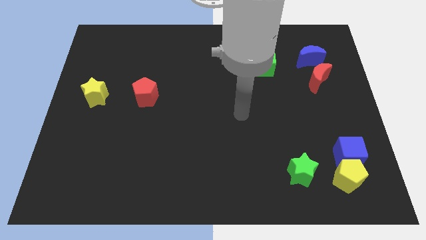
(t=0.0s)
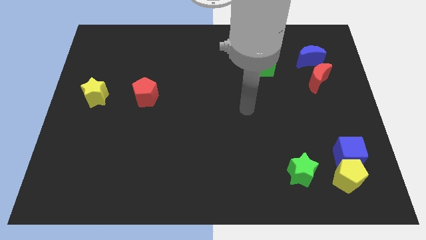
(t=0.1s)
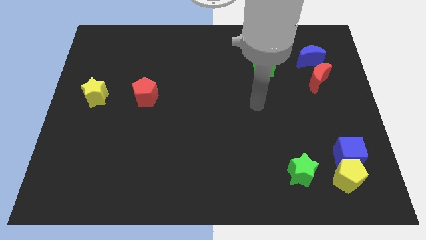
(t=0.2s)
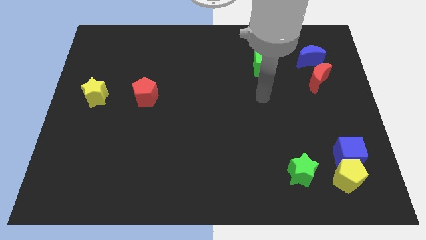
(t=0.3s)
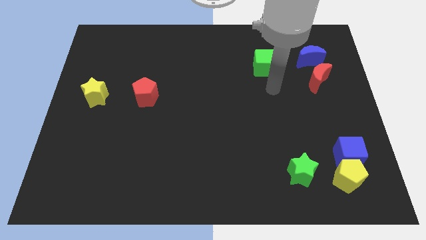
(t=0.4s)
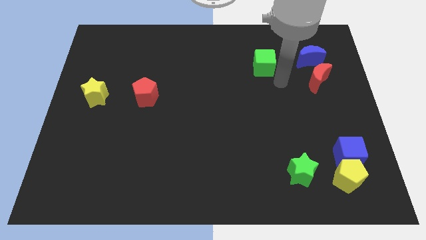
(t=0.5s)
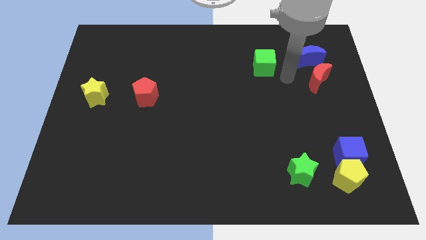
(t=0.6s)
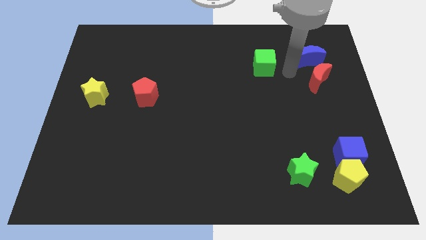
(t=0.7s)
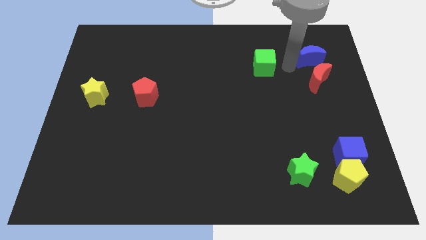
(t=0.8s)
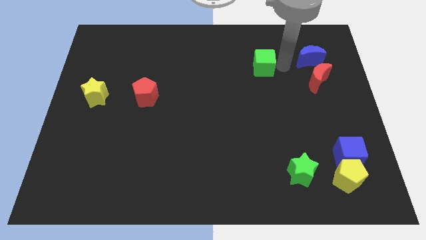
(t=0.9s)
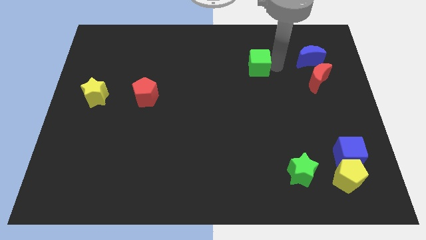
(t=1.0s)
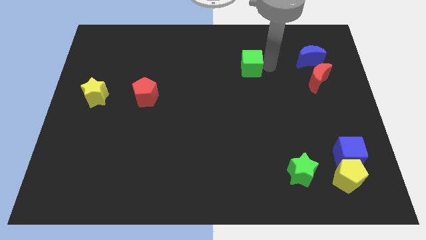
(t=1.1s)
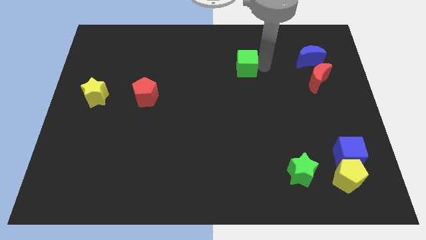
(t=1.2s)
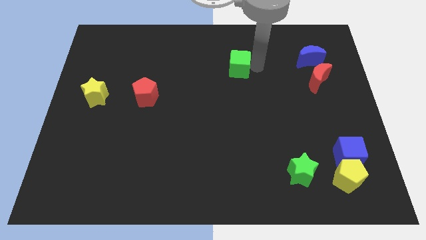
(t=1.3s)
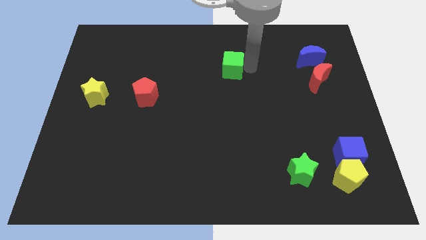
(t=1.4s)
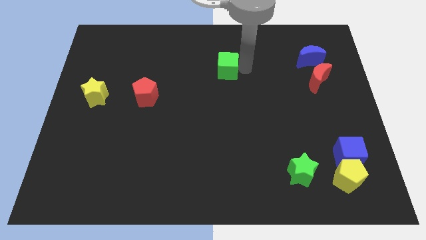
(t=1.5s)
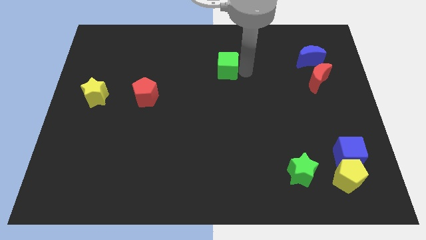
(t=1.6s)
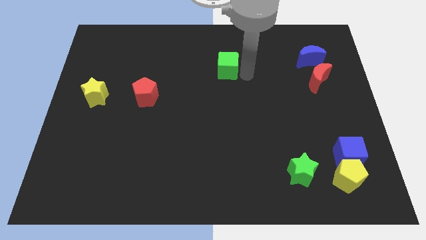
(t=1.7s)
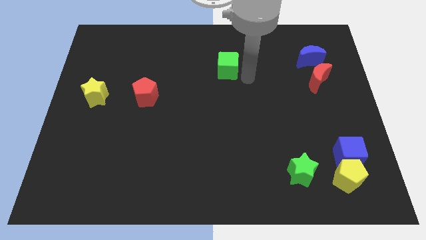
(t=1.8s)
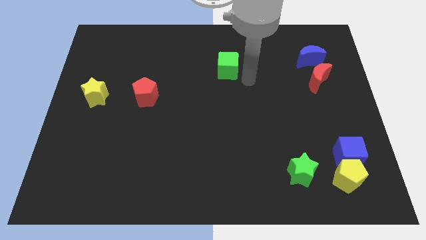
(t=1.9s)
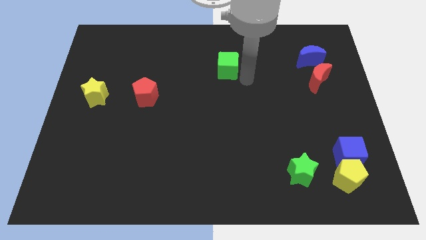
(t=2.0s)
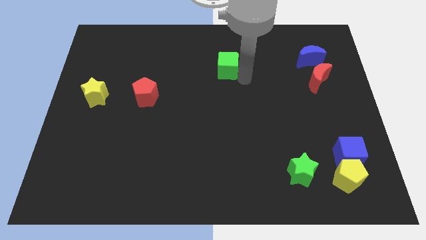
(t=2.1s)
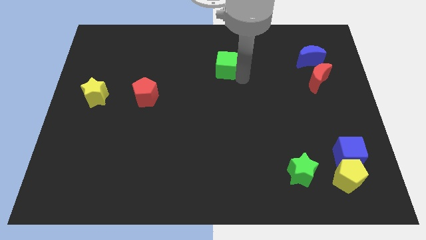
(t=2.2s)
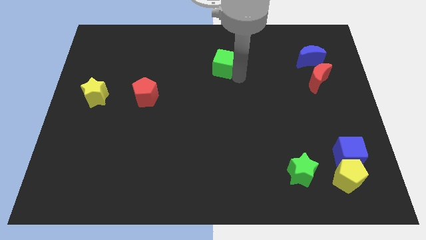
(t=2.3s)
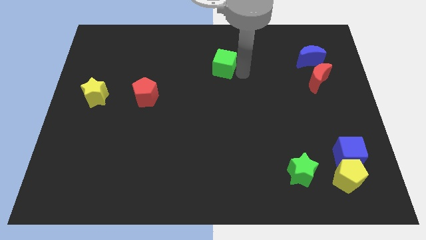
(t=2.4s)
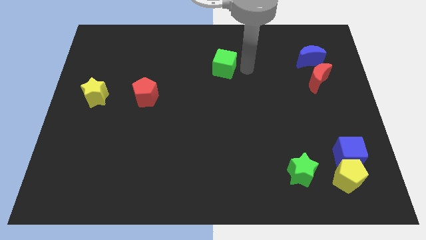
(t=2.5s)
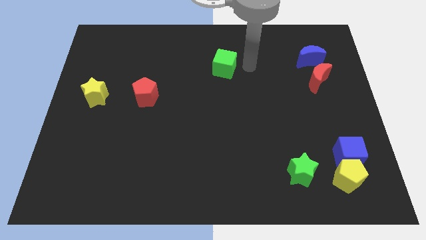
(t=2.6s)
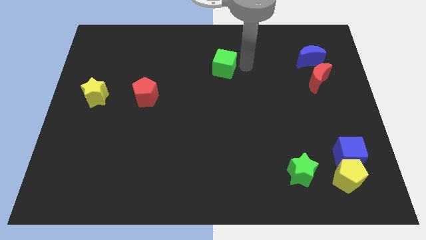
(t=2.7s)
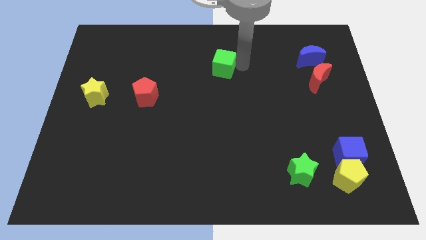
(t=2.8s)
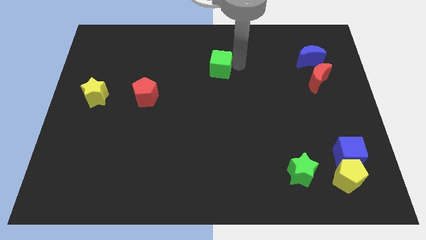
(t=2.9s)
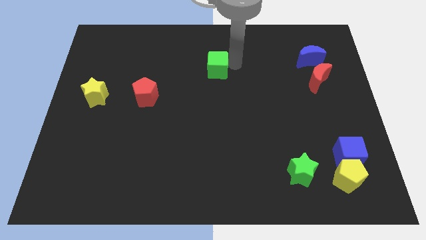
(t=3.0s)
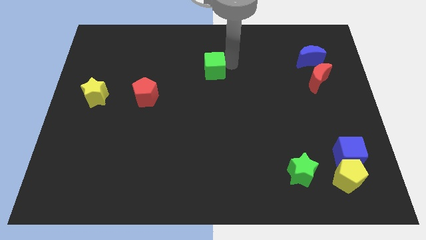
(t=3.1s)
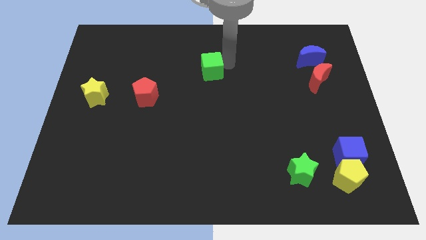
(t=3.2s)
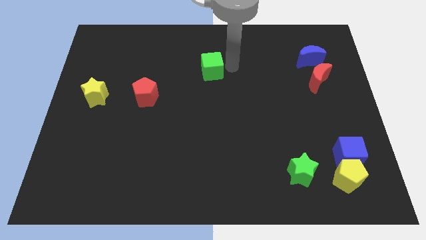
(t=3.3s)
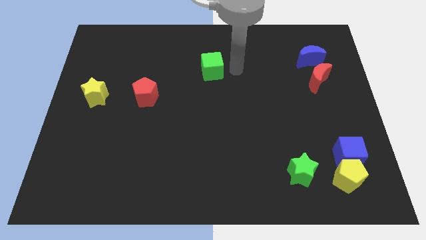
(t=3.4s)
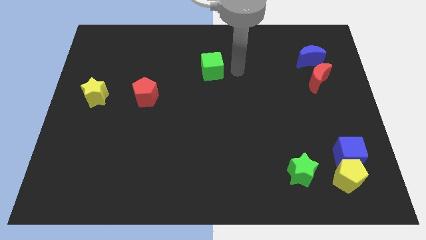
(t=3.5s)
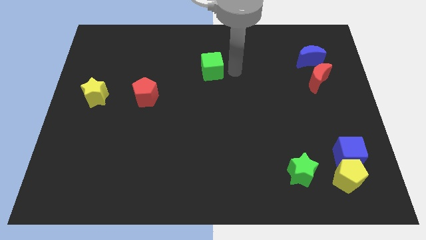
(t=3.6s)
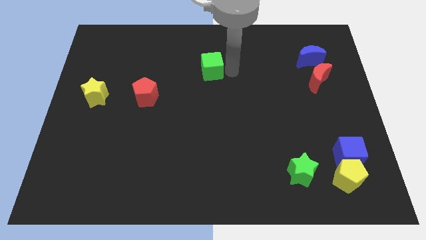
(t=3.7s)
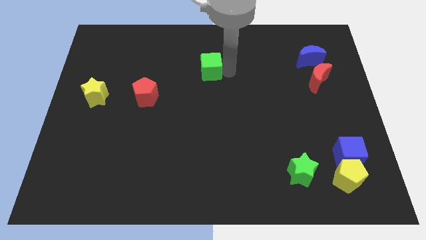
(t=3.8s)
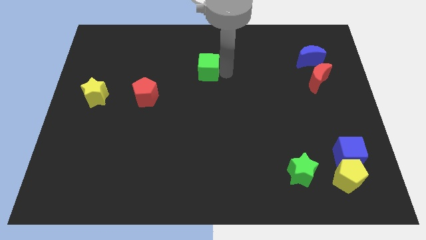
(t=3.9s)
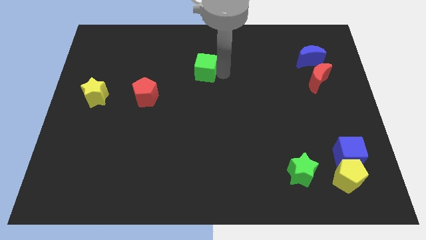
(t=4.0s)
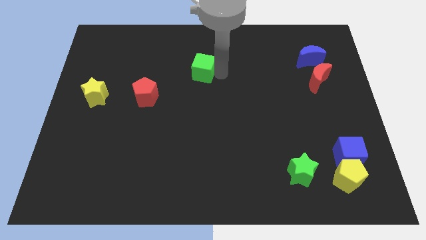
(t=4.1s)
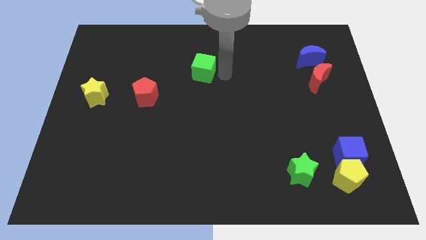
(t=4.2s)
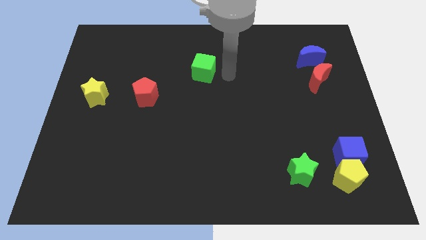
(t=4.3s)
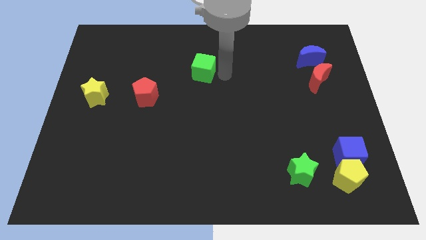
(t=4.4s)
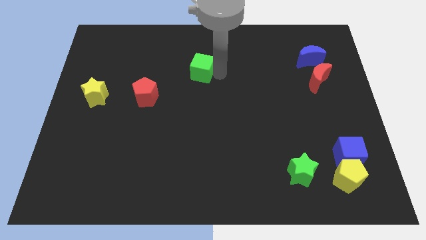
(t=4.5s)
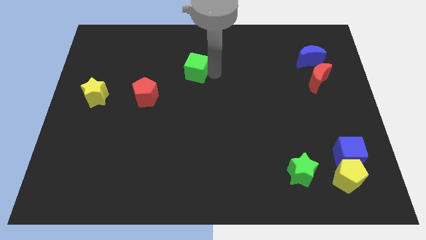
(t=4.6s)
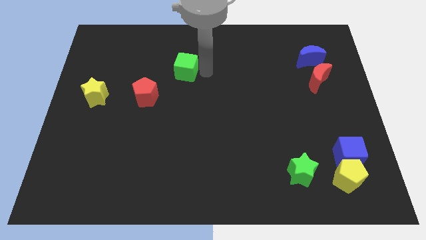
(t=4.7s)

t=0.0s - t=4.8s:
push the green cube to the left

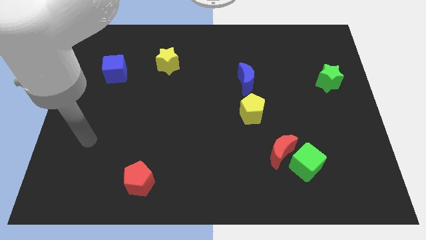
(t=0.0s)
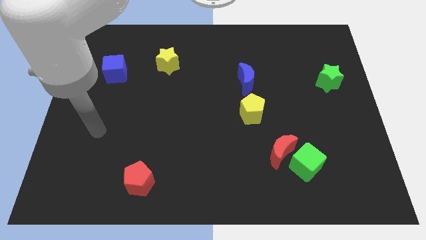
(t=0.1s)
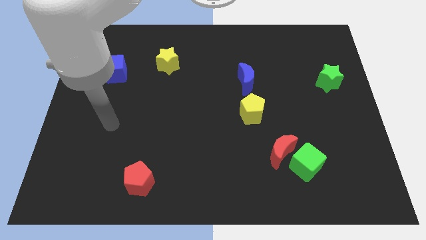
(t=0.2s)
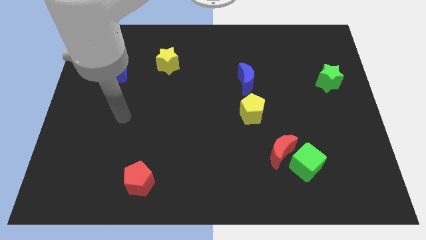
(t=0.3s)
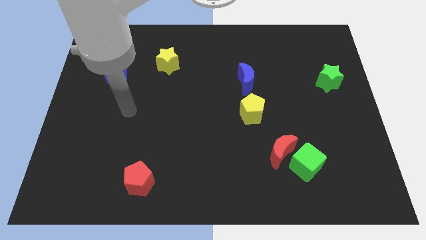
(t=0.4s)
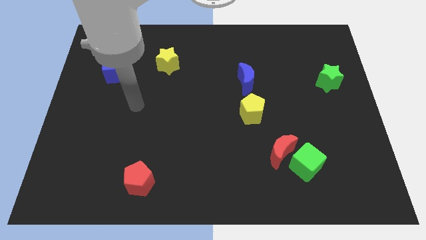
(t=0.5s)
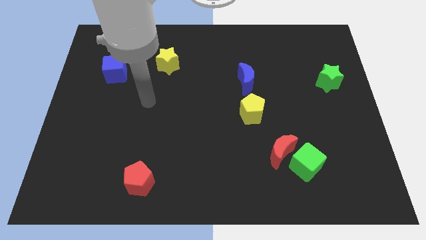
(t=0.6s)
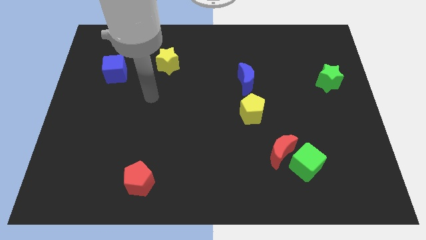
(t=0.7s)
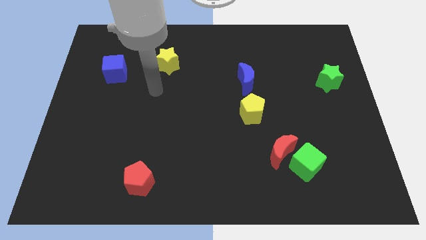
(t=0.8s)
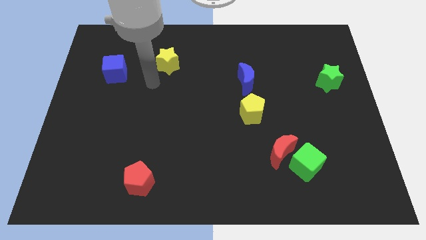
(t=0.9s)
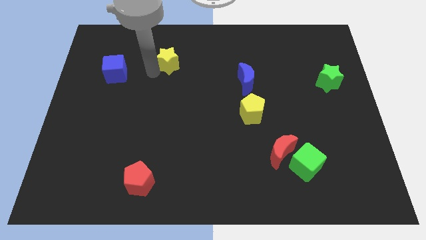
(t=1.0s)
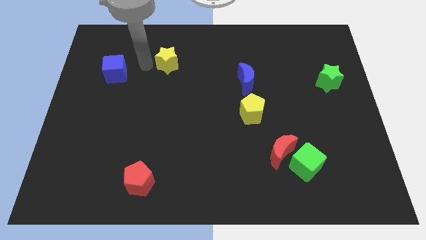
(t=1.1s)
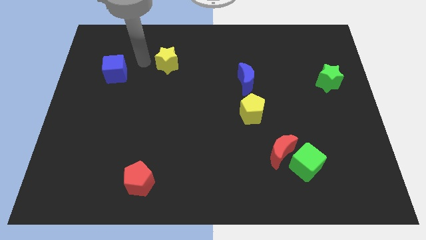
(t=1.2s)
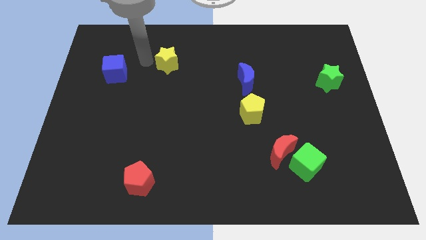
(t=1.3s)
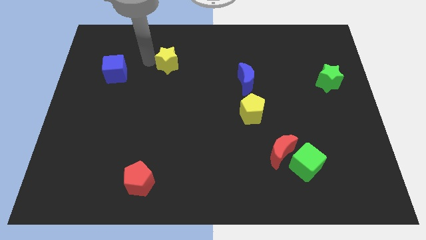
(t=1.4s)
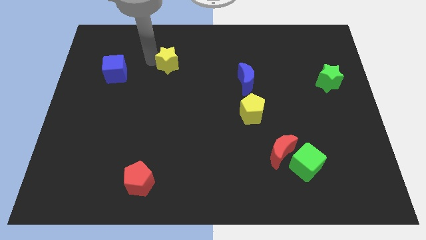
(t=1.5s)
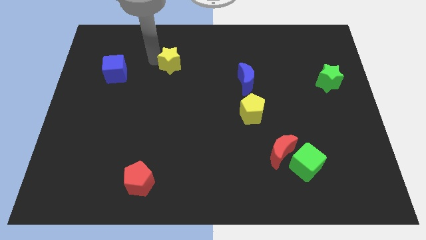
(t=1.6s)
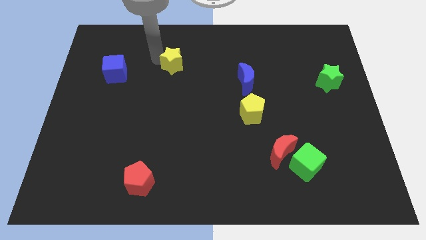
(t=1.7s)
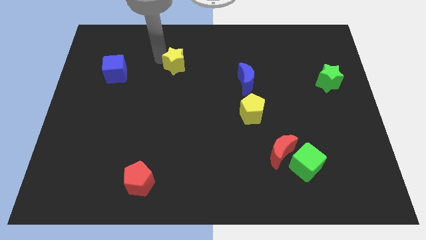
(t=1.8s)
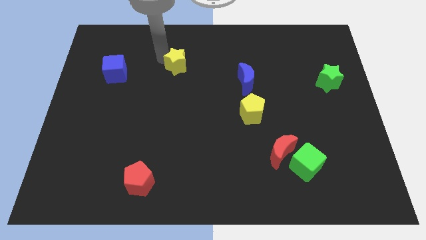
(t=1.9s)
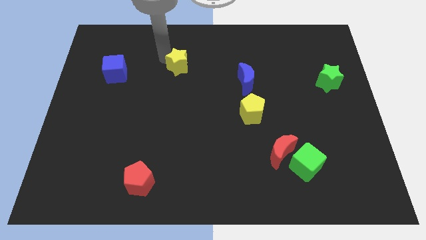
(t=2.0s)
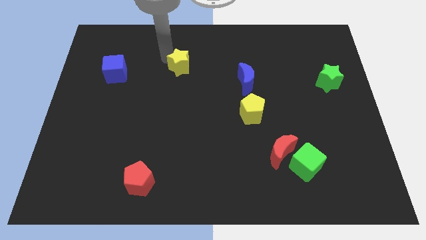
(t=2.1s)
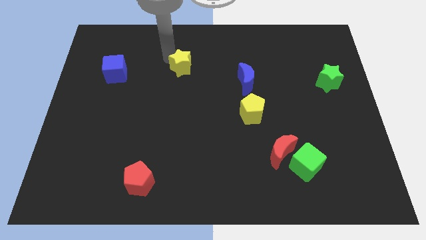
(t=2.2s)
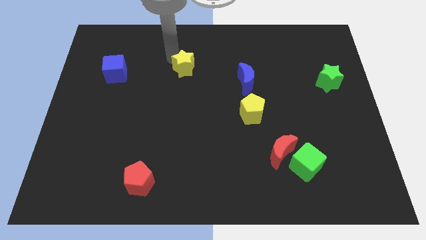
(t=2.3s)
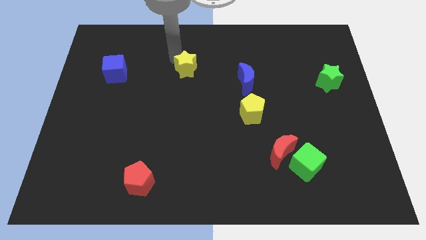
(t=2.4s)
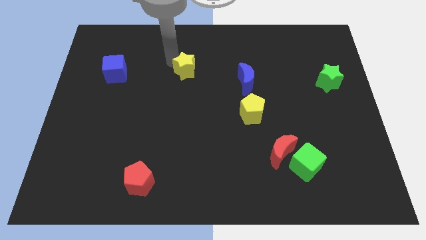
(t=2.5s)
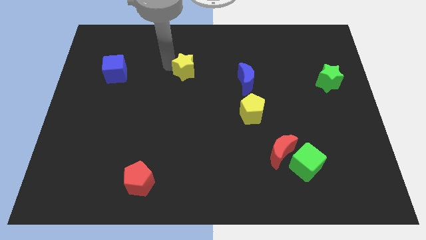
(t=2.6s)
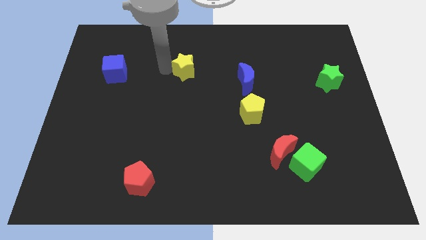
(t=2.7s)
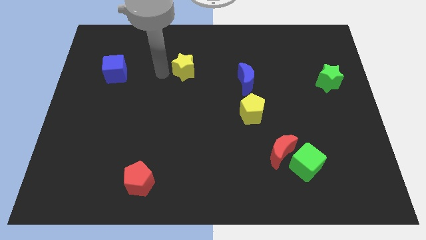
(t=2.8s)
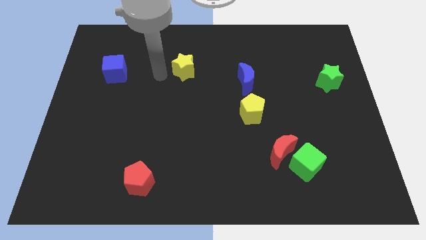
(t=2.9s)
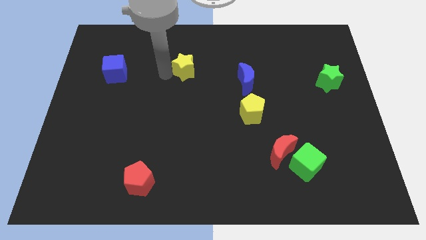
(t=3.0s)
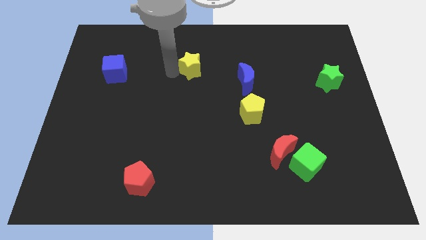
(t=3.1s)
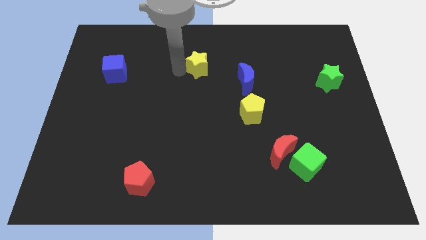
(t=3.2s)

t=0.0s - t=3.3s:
slightly move the yellow star right

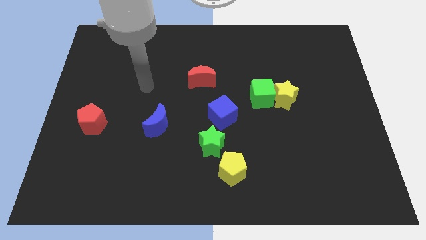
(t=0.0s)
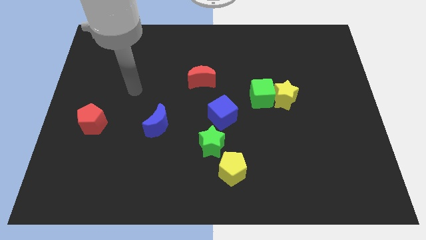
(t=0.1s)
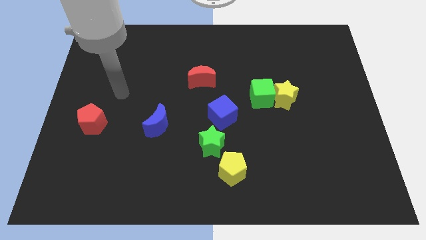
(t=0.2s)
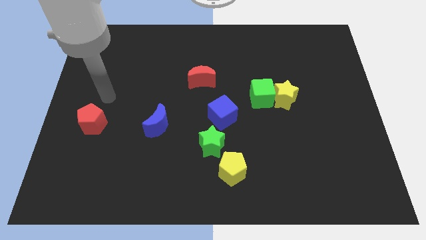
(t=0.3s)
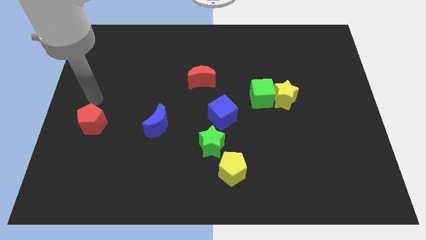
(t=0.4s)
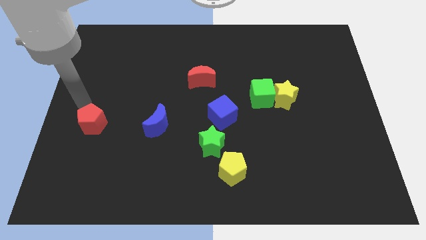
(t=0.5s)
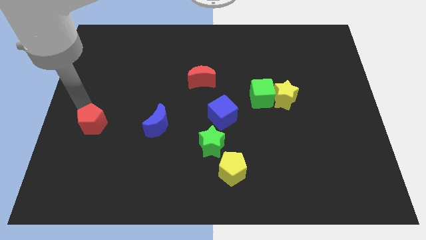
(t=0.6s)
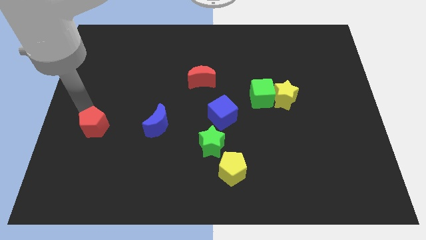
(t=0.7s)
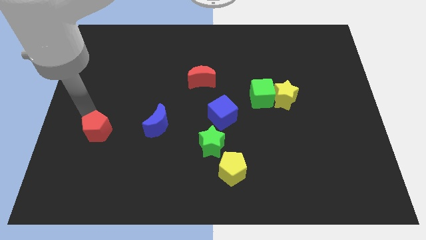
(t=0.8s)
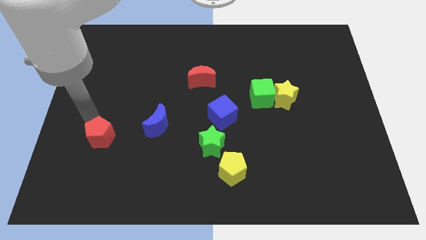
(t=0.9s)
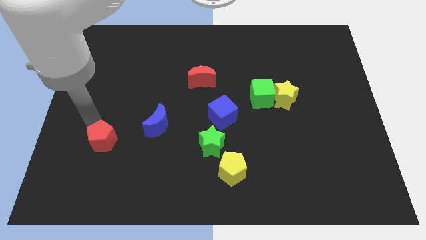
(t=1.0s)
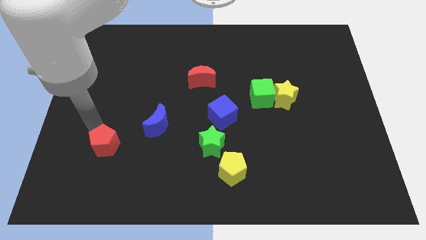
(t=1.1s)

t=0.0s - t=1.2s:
slide the red pentagon down and to the right somewhat
